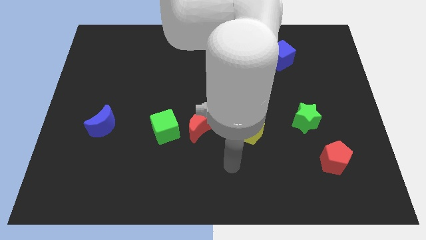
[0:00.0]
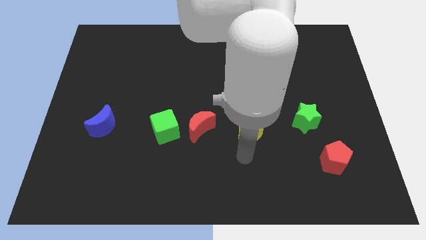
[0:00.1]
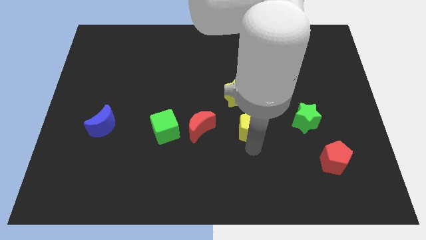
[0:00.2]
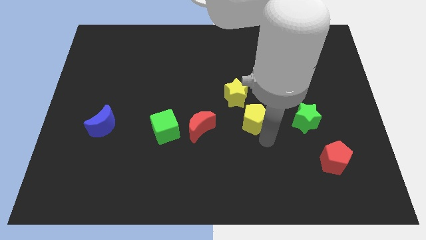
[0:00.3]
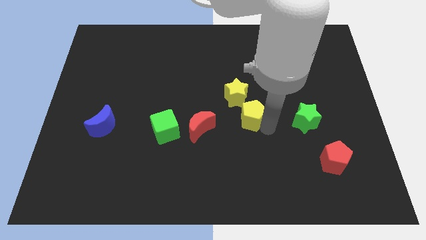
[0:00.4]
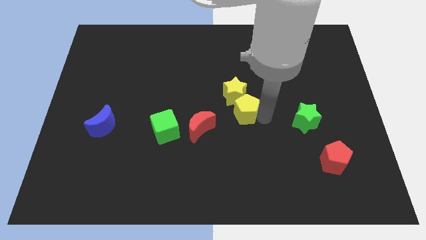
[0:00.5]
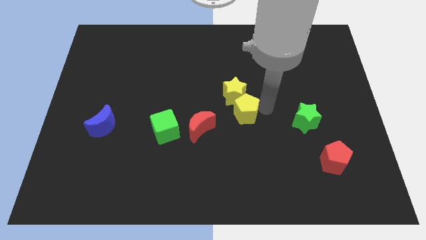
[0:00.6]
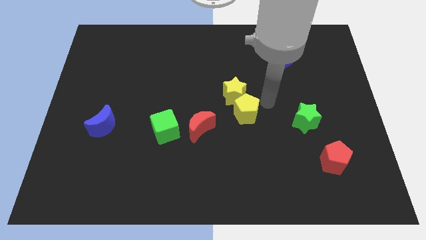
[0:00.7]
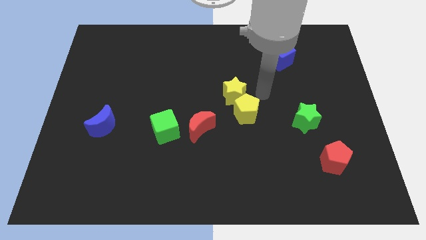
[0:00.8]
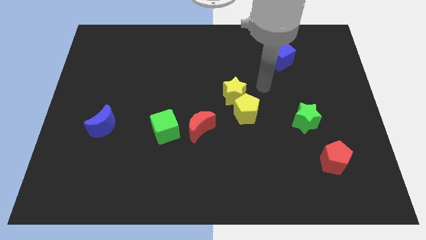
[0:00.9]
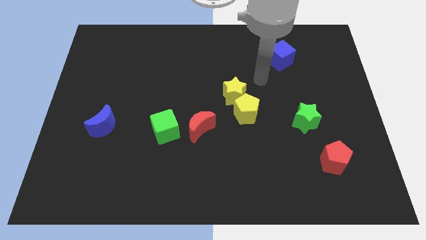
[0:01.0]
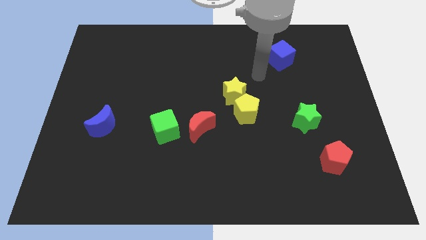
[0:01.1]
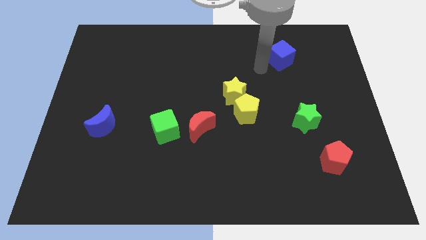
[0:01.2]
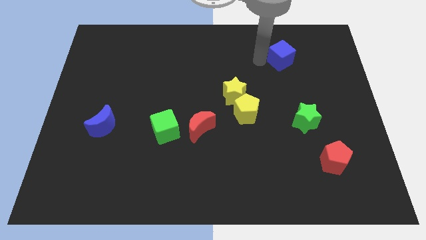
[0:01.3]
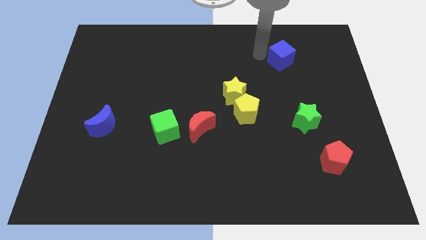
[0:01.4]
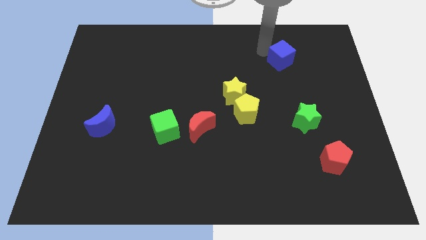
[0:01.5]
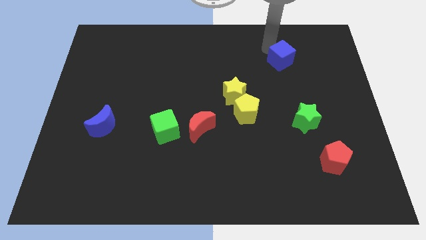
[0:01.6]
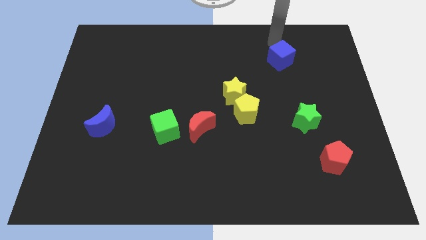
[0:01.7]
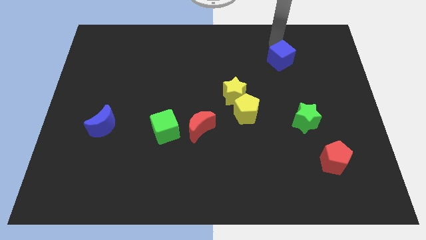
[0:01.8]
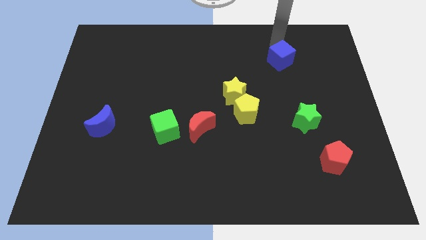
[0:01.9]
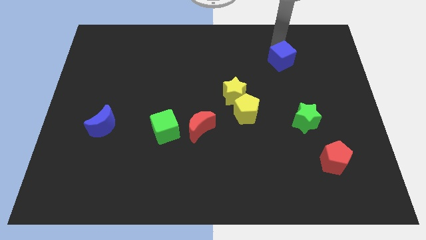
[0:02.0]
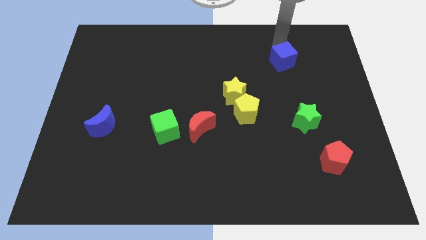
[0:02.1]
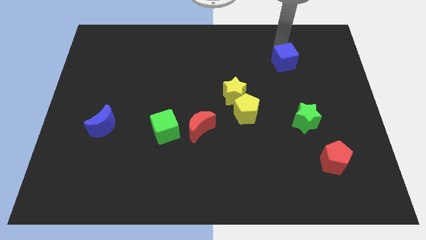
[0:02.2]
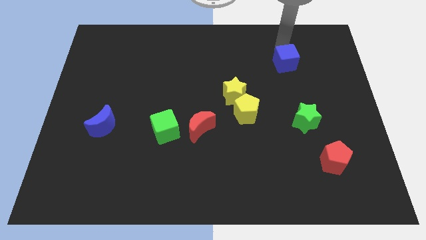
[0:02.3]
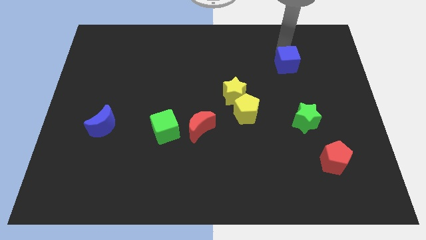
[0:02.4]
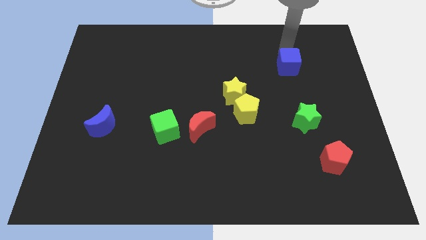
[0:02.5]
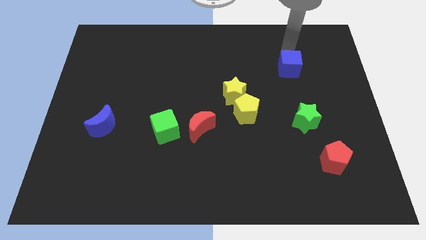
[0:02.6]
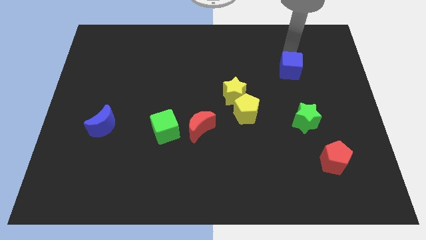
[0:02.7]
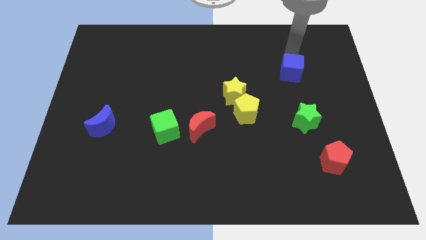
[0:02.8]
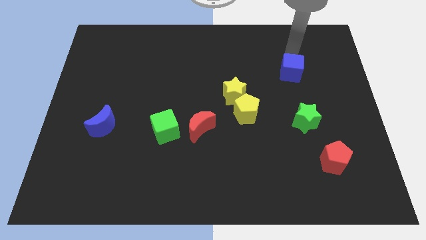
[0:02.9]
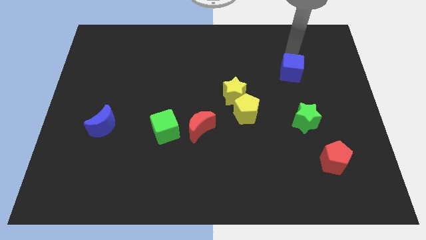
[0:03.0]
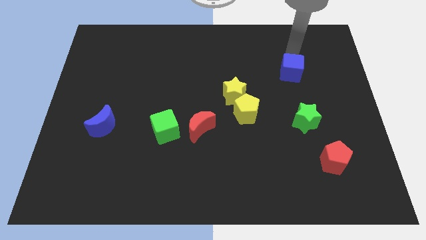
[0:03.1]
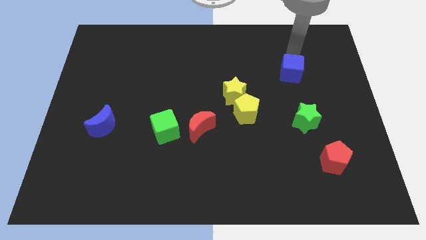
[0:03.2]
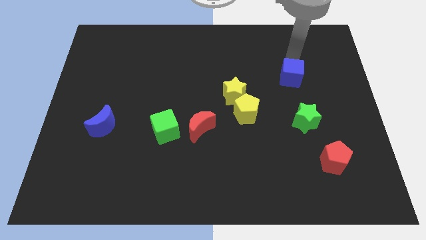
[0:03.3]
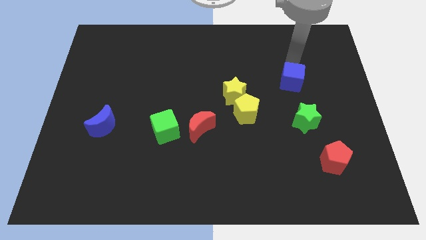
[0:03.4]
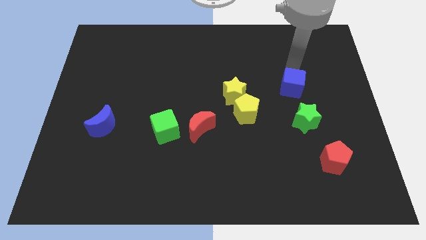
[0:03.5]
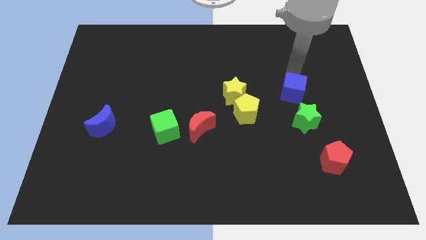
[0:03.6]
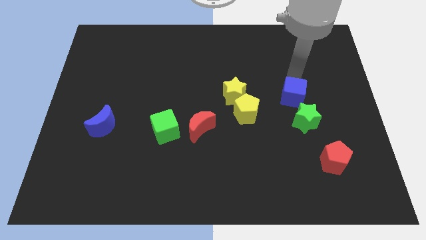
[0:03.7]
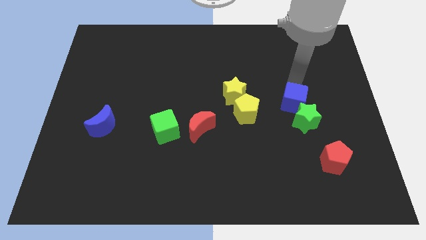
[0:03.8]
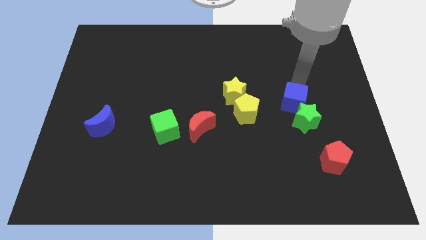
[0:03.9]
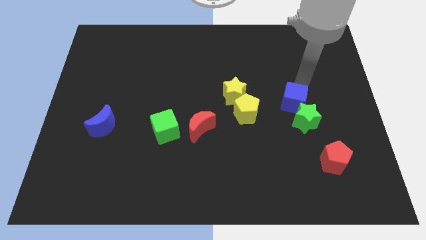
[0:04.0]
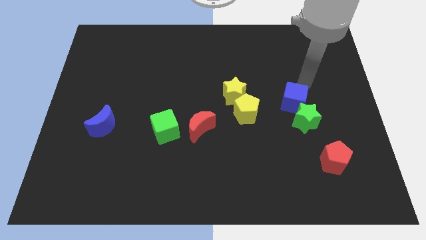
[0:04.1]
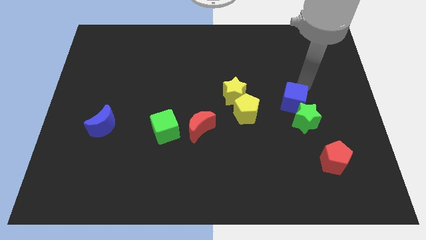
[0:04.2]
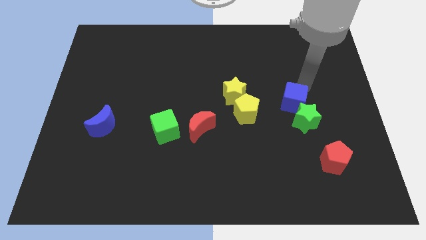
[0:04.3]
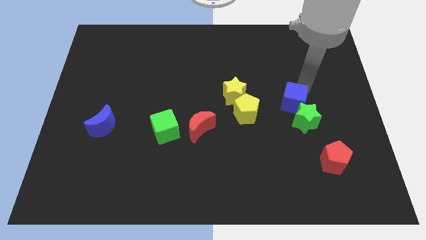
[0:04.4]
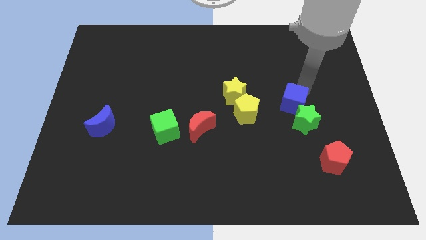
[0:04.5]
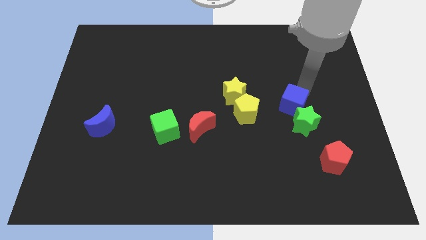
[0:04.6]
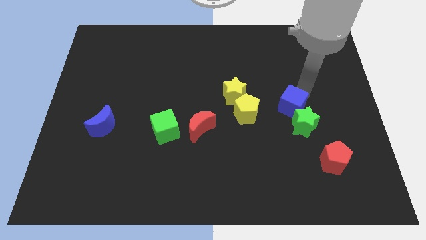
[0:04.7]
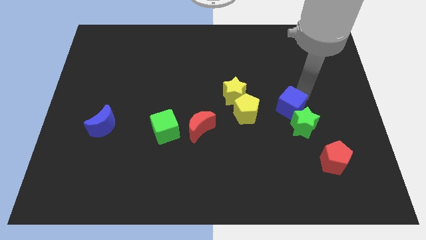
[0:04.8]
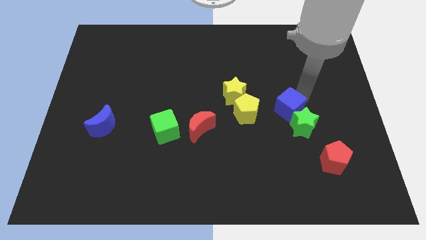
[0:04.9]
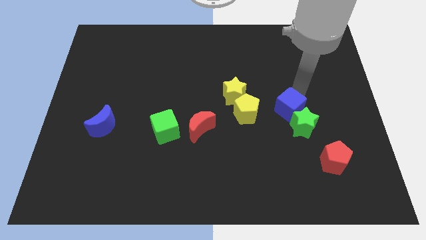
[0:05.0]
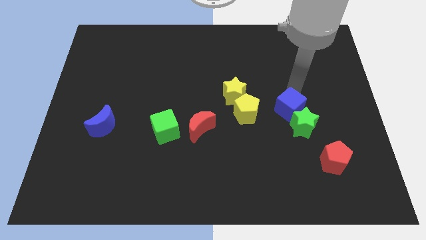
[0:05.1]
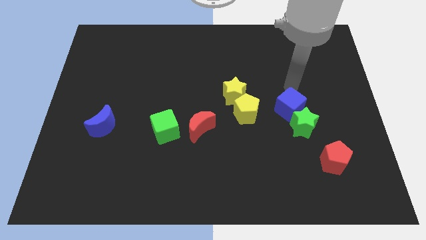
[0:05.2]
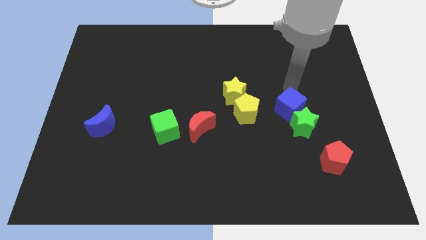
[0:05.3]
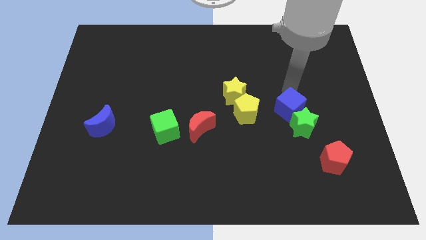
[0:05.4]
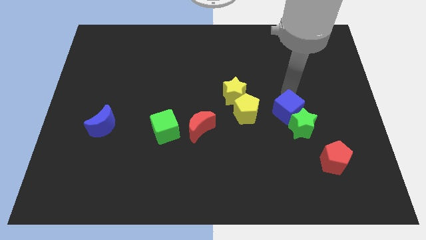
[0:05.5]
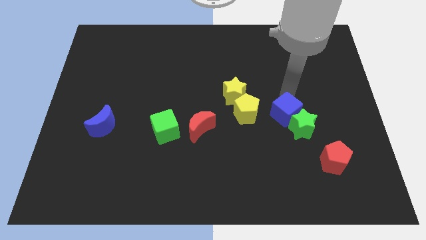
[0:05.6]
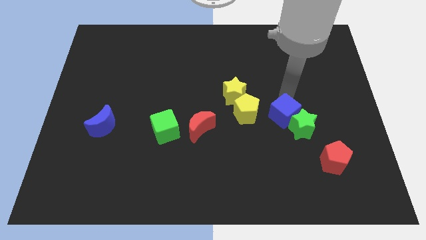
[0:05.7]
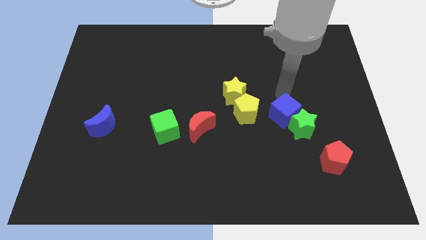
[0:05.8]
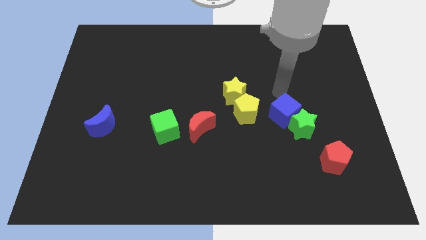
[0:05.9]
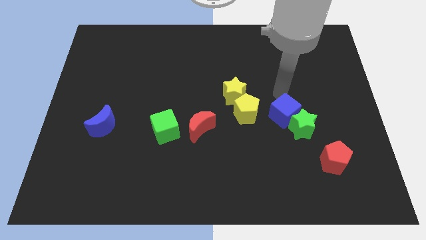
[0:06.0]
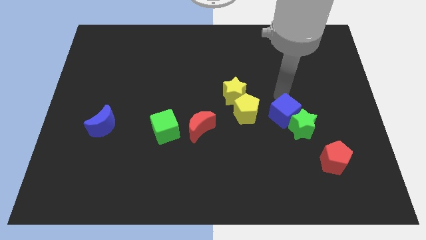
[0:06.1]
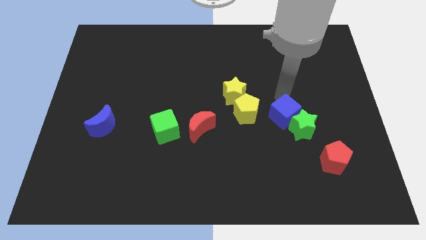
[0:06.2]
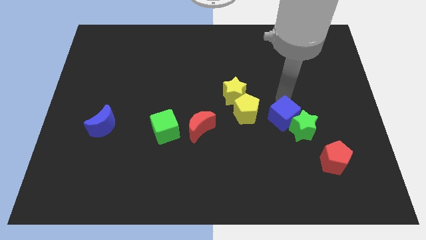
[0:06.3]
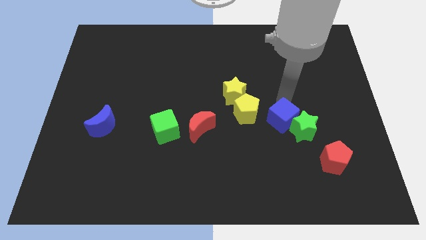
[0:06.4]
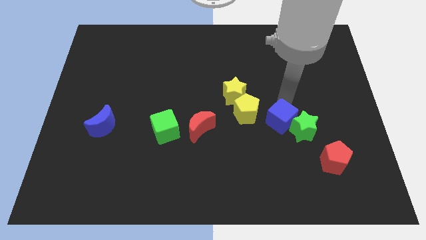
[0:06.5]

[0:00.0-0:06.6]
push the blue cube downwards

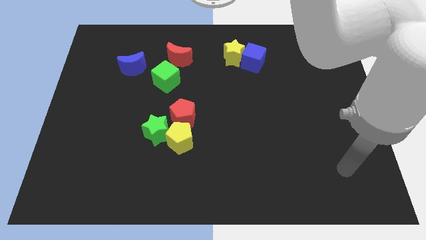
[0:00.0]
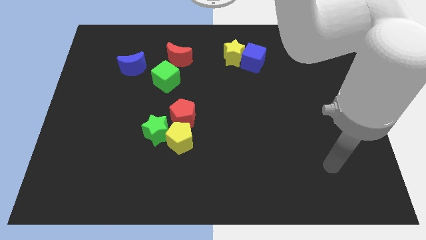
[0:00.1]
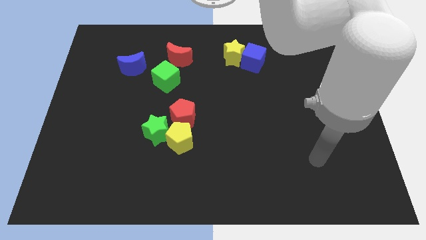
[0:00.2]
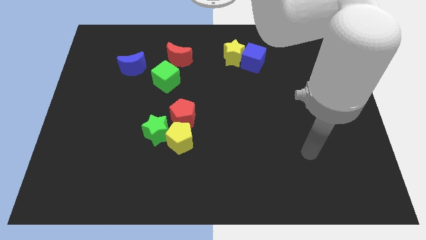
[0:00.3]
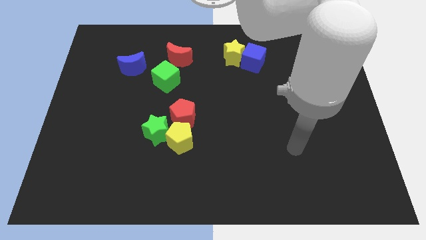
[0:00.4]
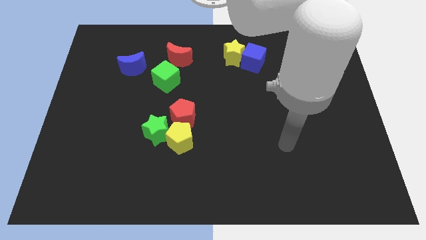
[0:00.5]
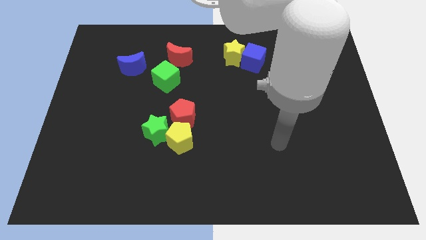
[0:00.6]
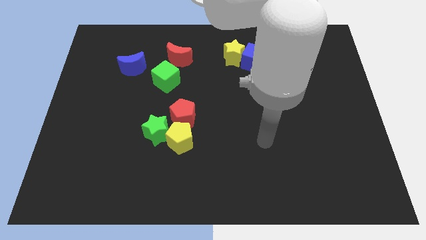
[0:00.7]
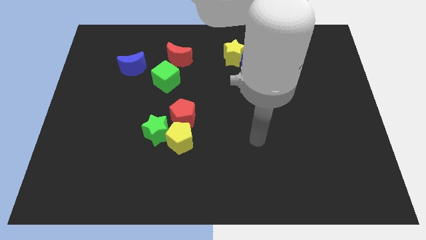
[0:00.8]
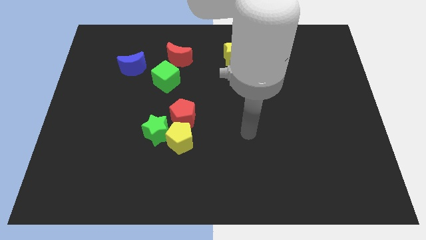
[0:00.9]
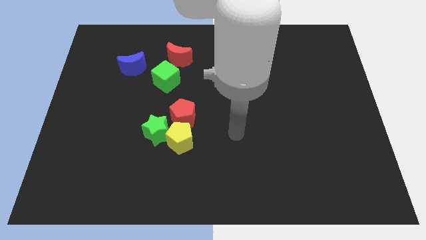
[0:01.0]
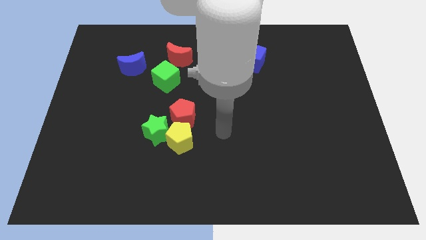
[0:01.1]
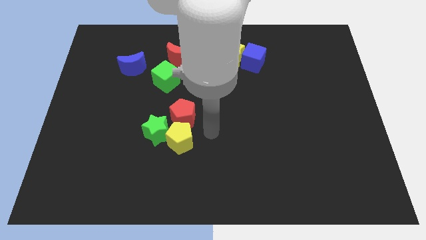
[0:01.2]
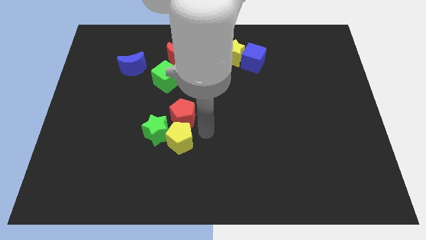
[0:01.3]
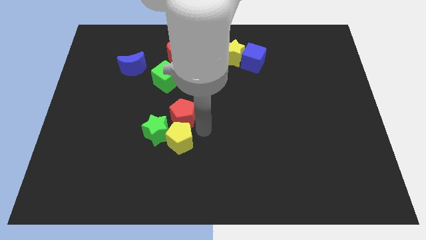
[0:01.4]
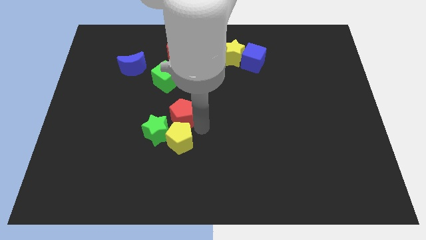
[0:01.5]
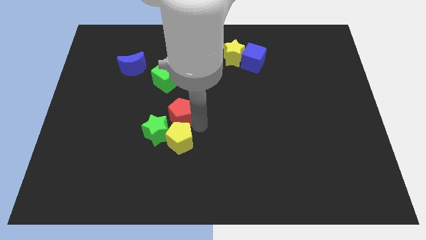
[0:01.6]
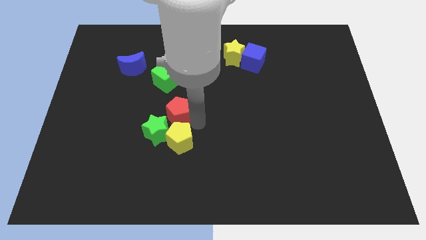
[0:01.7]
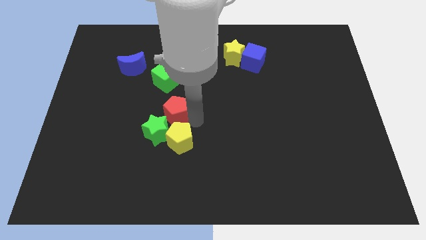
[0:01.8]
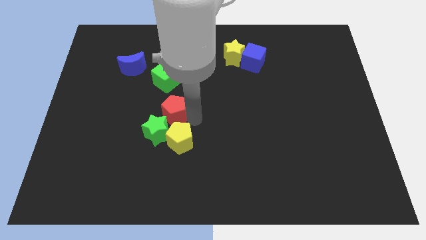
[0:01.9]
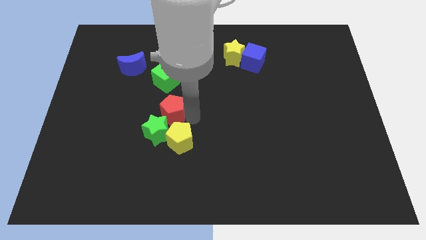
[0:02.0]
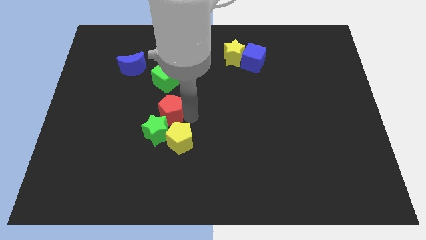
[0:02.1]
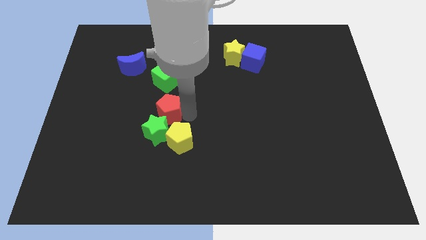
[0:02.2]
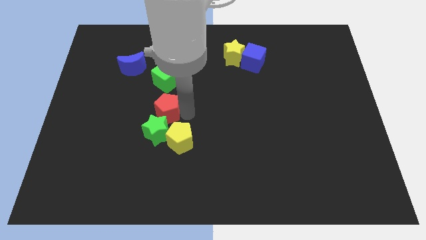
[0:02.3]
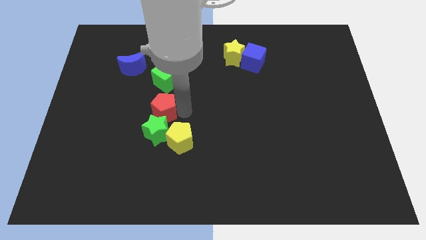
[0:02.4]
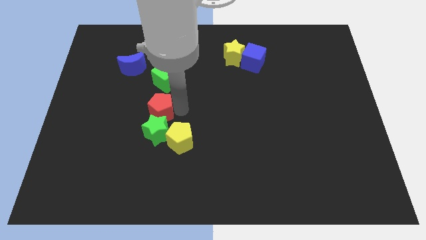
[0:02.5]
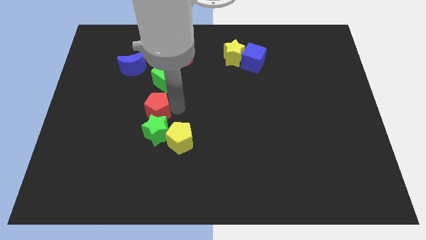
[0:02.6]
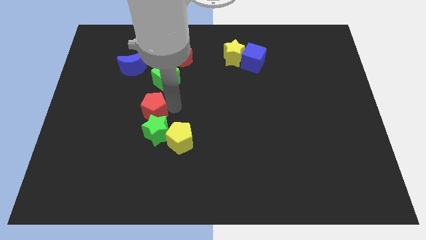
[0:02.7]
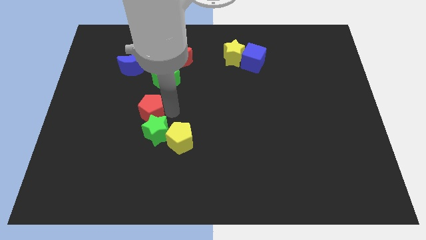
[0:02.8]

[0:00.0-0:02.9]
slide the red pentagon to the left slightly
